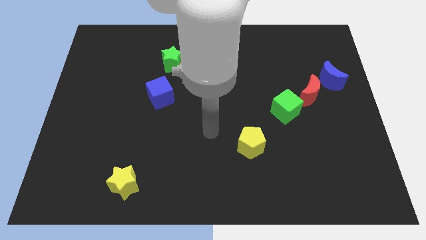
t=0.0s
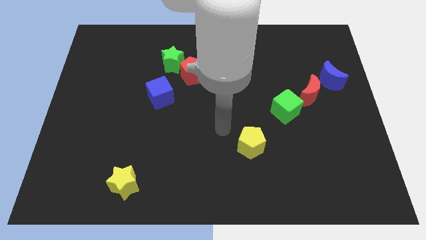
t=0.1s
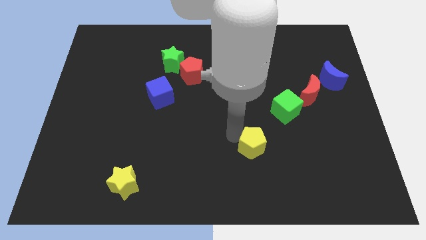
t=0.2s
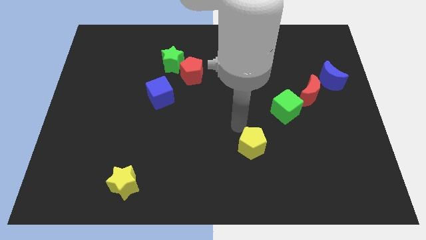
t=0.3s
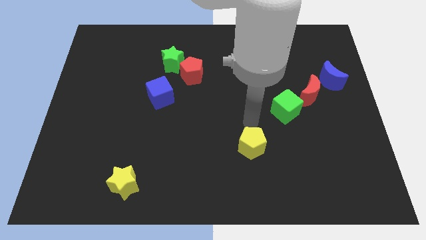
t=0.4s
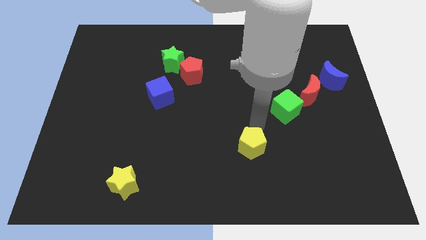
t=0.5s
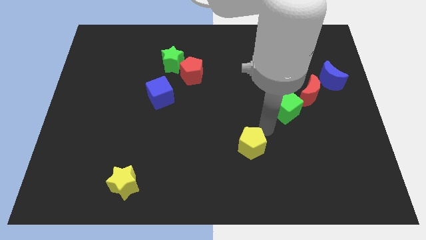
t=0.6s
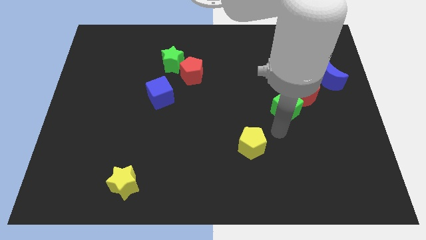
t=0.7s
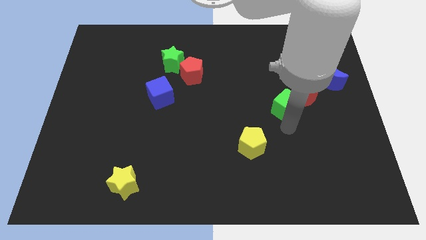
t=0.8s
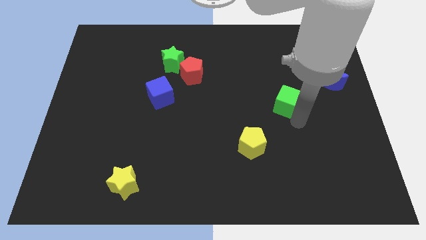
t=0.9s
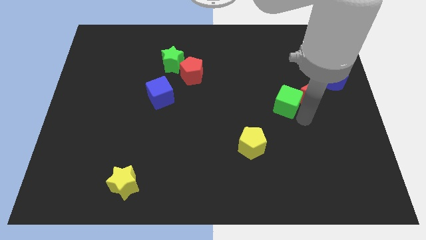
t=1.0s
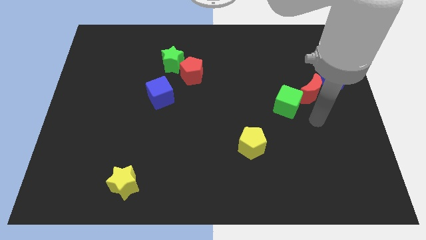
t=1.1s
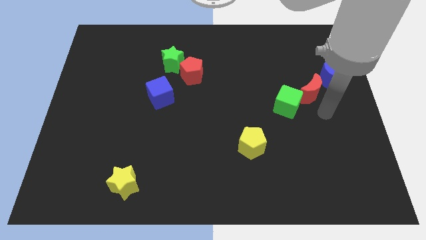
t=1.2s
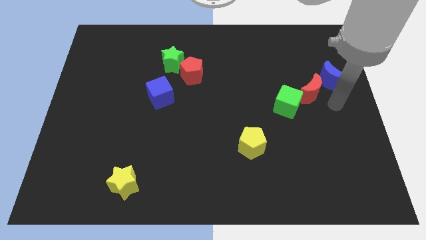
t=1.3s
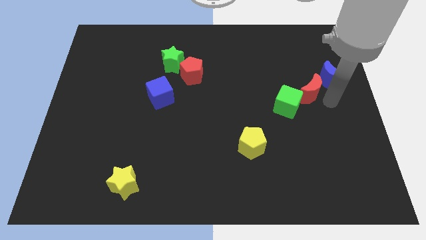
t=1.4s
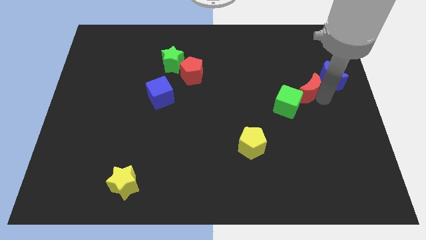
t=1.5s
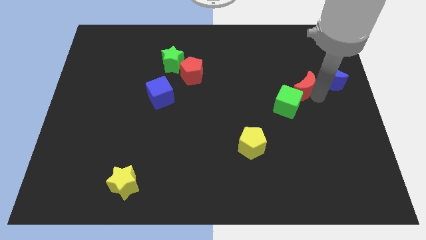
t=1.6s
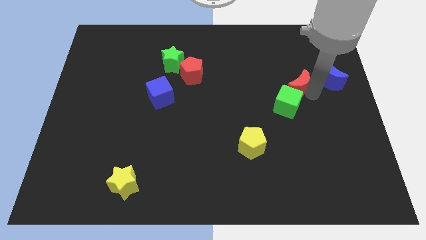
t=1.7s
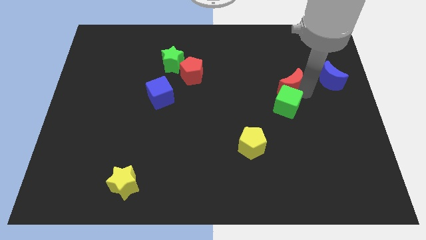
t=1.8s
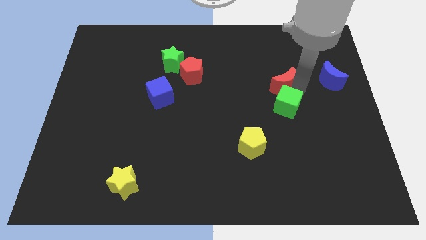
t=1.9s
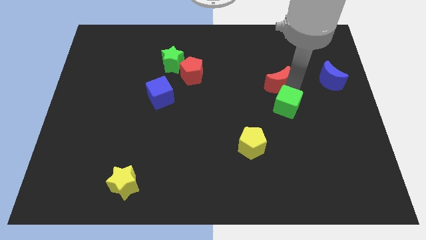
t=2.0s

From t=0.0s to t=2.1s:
move the red moon up and to the left a bit

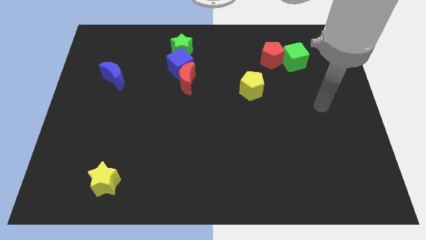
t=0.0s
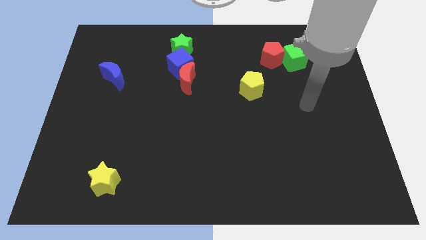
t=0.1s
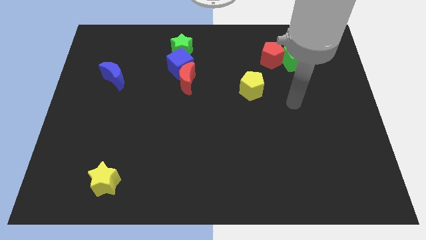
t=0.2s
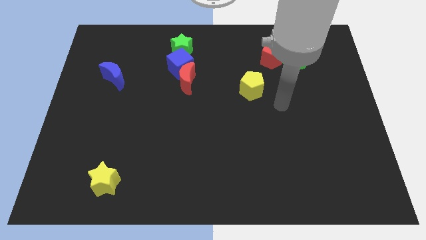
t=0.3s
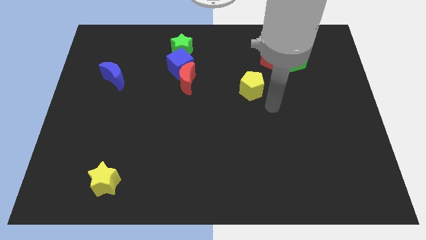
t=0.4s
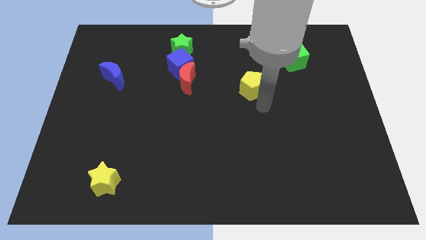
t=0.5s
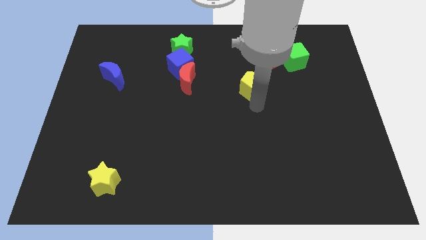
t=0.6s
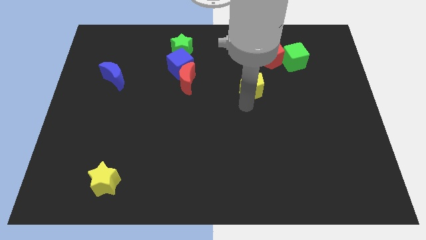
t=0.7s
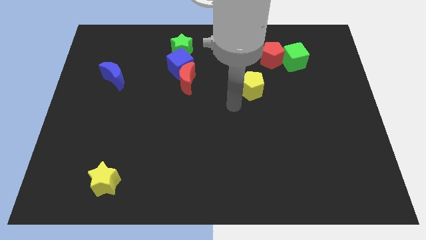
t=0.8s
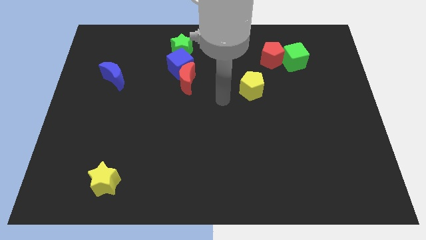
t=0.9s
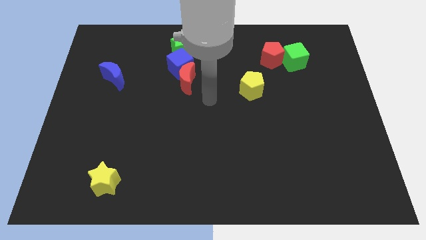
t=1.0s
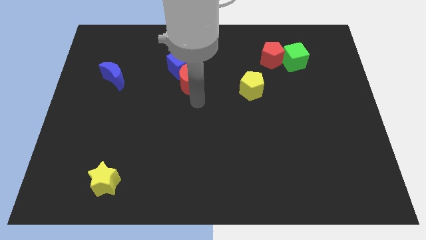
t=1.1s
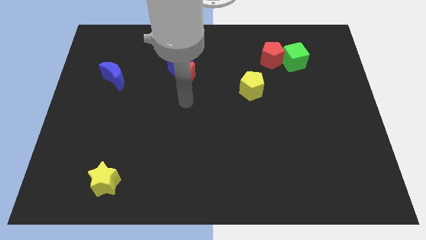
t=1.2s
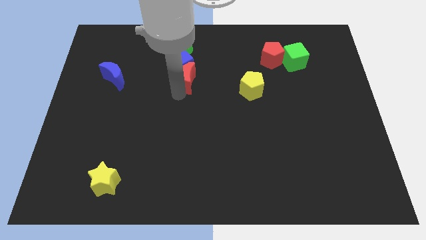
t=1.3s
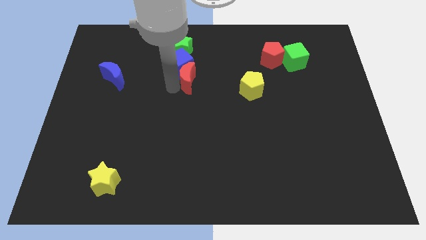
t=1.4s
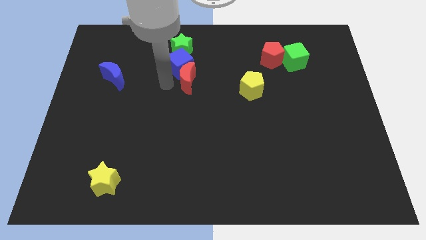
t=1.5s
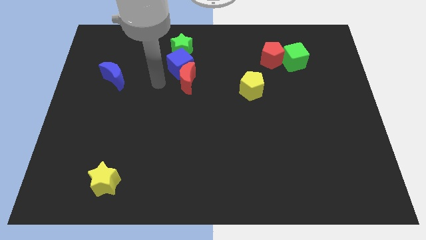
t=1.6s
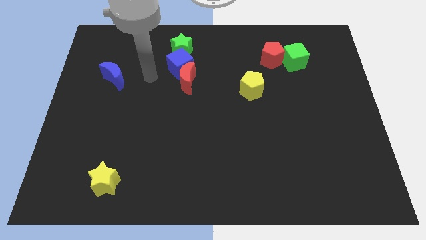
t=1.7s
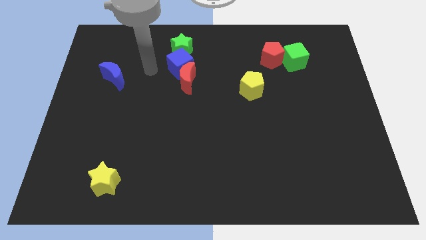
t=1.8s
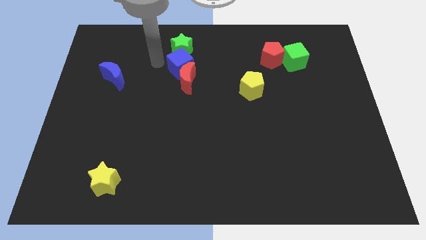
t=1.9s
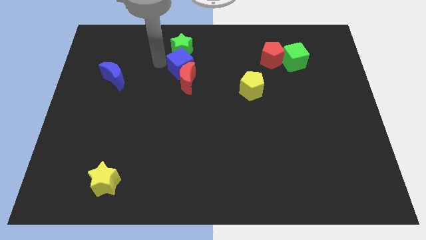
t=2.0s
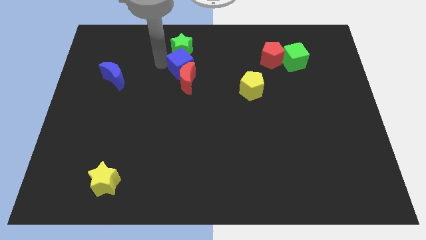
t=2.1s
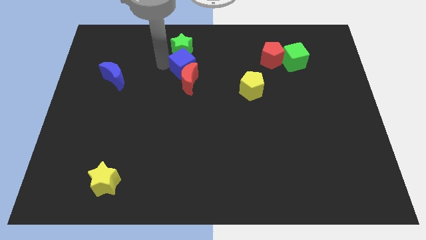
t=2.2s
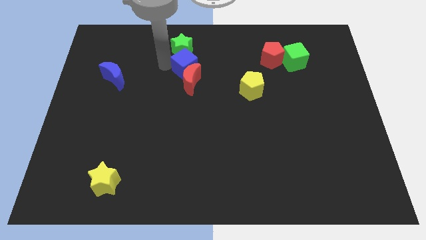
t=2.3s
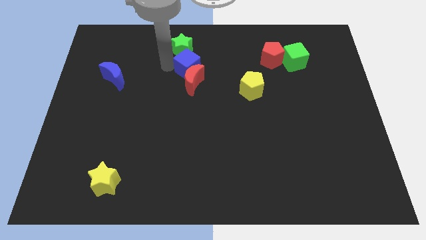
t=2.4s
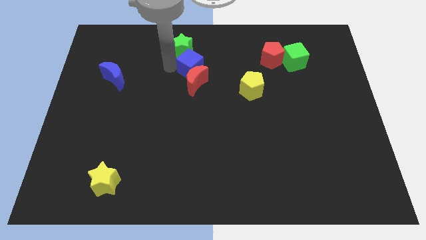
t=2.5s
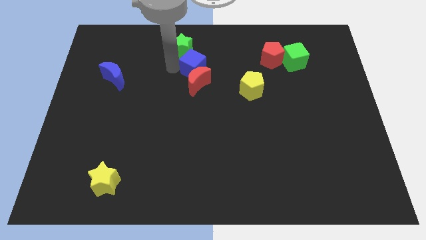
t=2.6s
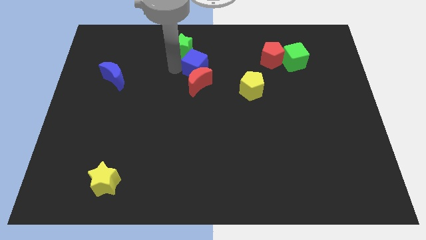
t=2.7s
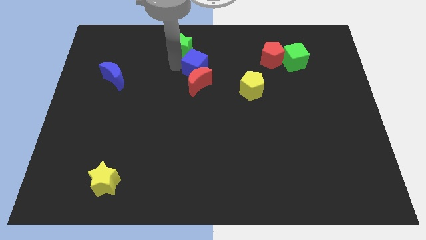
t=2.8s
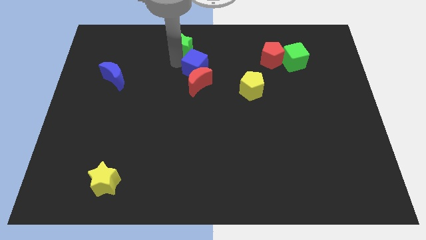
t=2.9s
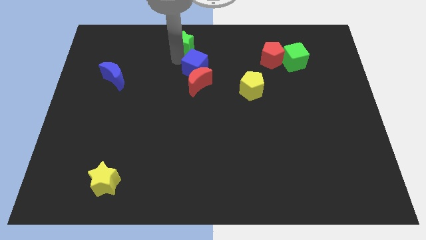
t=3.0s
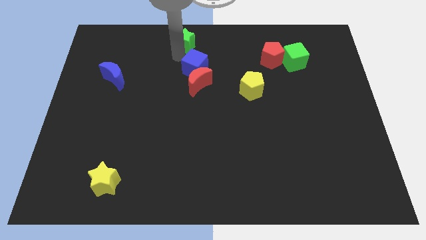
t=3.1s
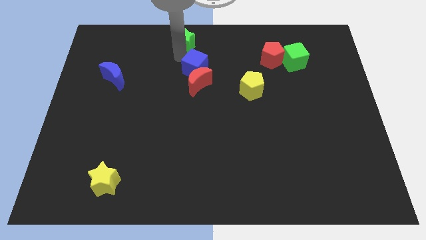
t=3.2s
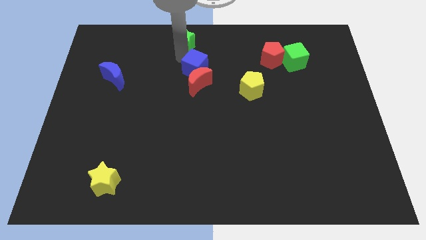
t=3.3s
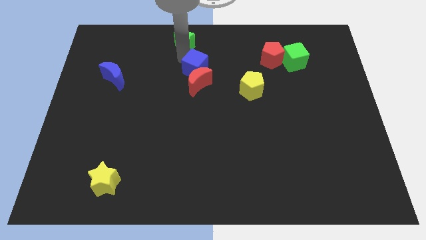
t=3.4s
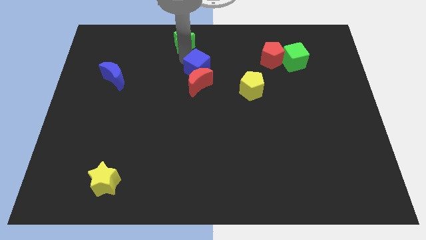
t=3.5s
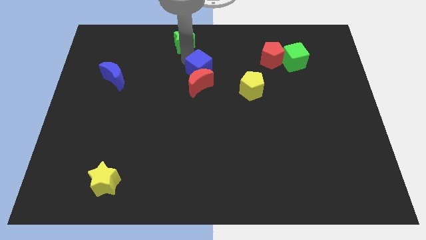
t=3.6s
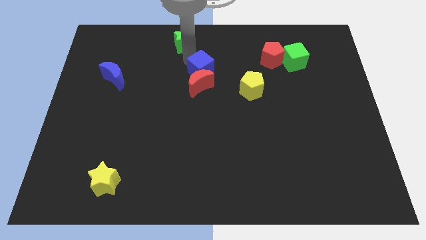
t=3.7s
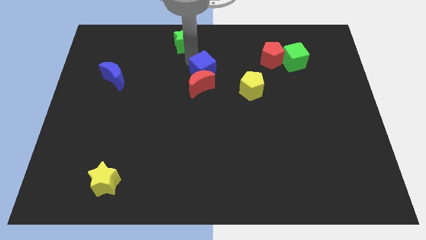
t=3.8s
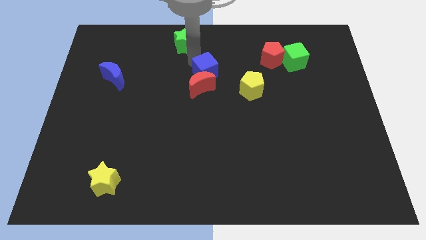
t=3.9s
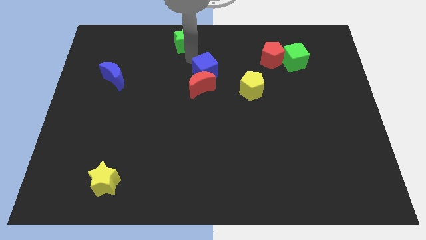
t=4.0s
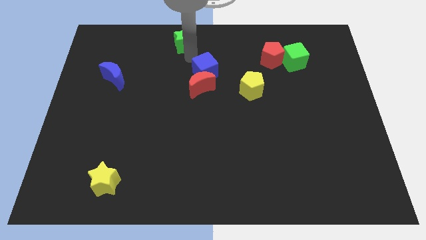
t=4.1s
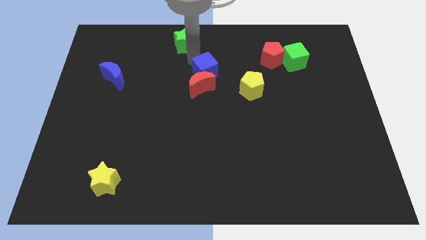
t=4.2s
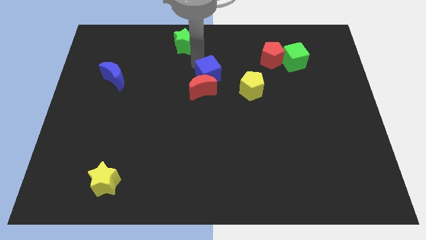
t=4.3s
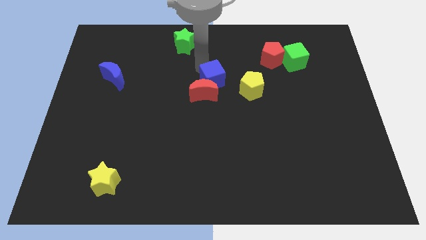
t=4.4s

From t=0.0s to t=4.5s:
push the blue cube diagonally downwards and to the right a bit

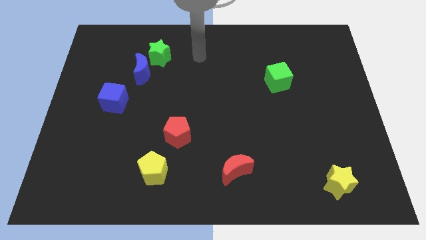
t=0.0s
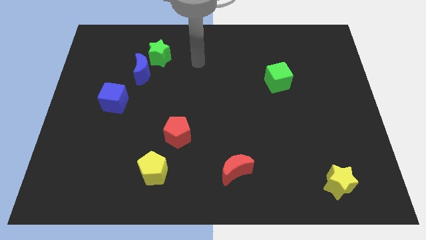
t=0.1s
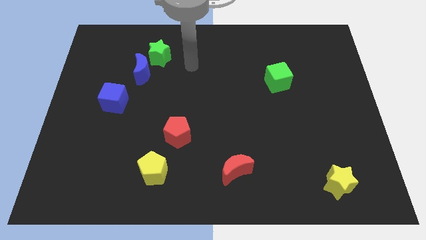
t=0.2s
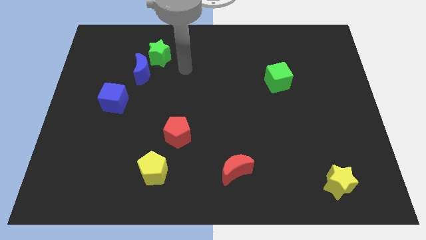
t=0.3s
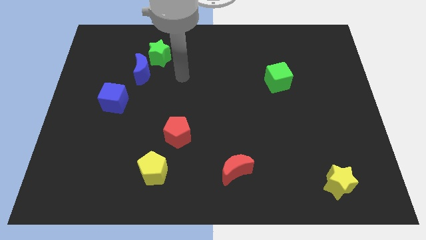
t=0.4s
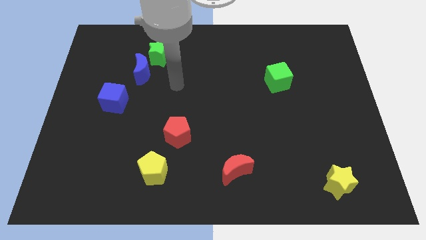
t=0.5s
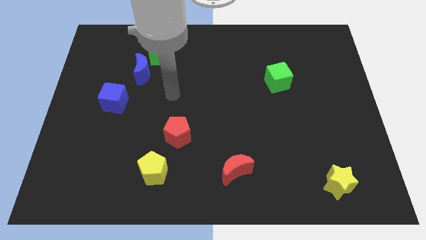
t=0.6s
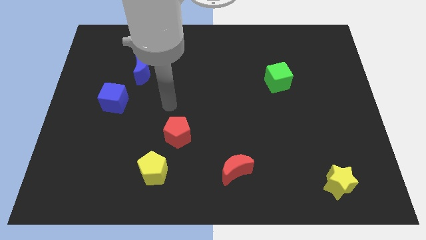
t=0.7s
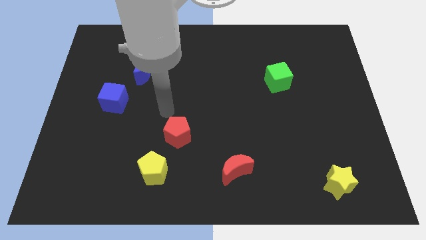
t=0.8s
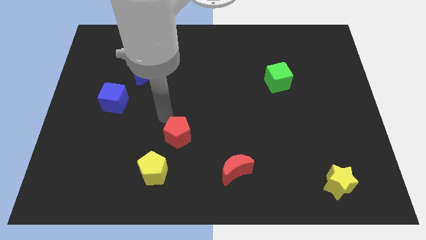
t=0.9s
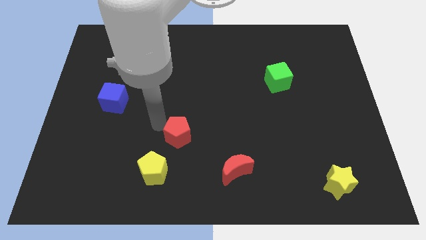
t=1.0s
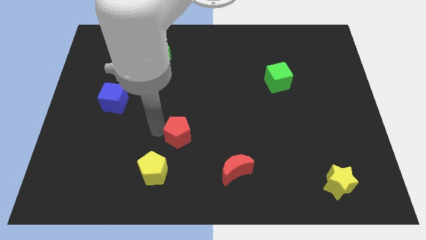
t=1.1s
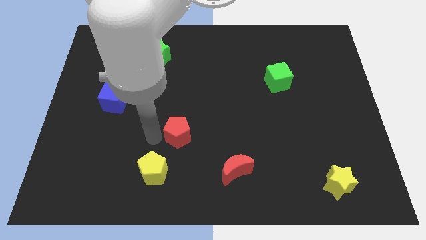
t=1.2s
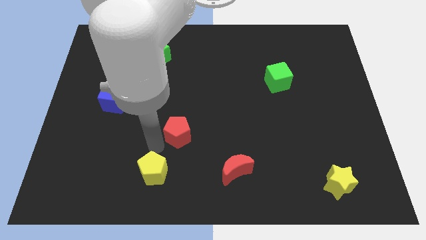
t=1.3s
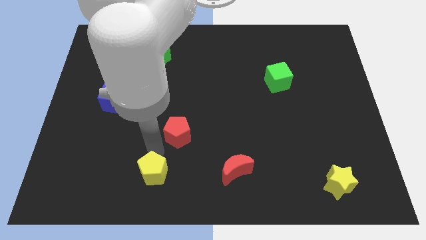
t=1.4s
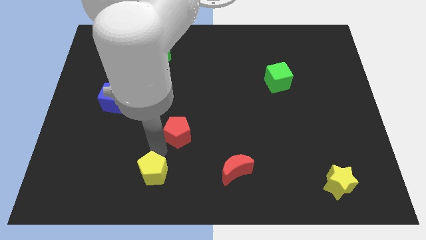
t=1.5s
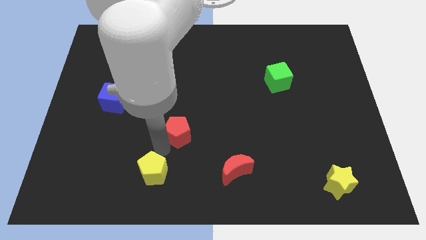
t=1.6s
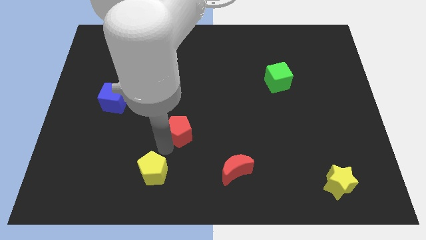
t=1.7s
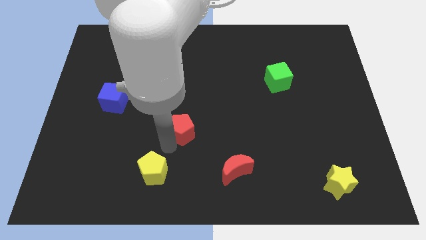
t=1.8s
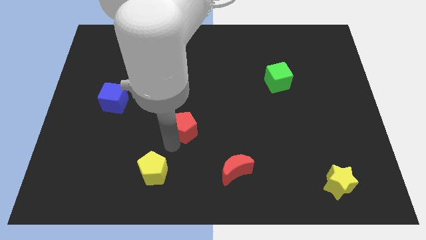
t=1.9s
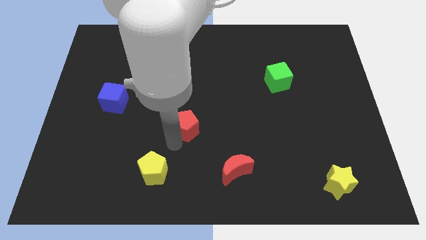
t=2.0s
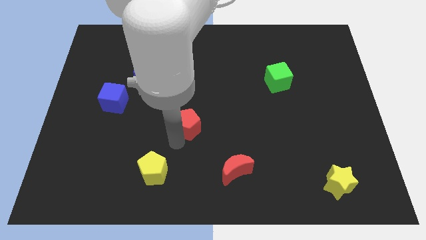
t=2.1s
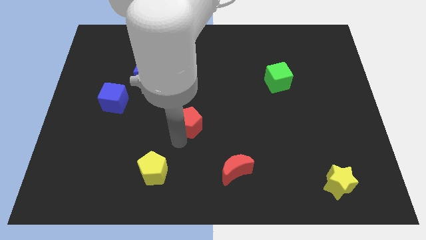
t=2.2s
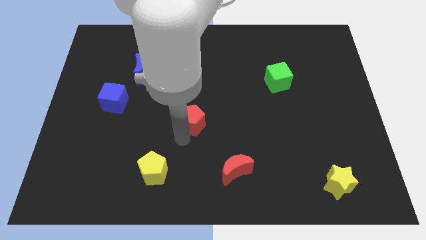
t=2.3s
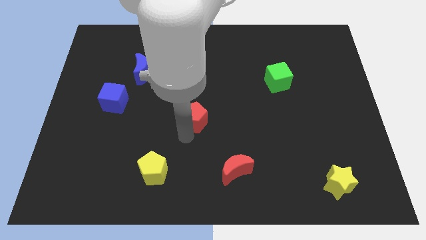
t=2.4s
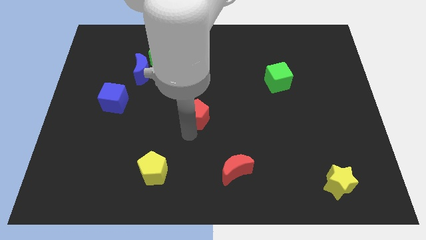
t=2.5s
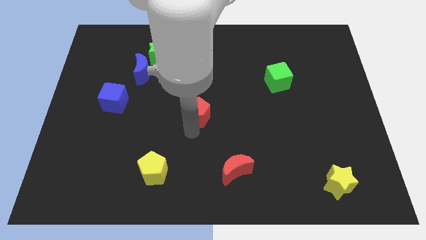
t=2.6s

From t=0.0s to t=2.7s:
slide the red pentagon somewhat upwards and right diagonally
